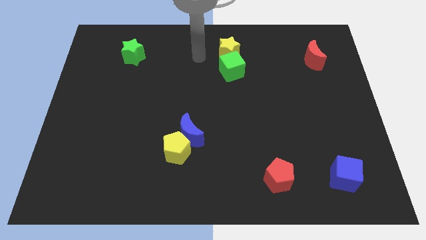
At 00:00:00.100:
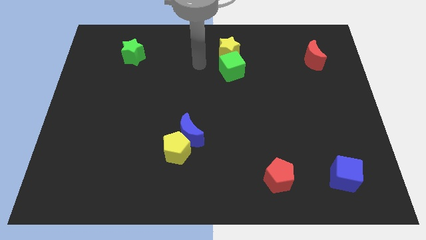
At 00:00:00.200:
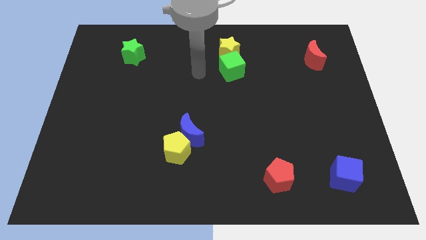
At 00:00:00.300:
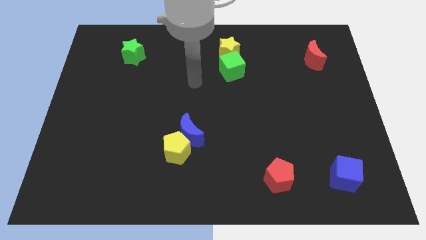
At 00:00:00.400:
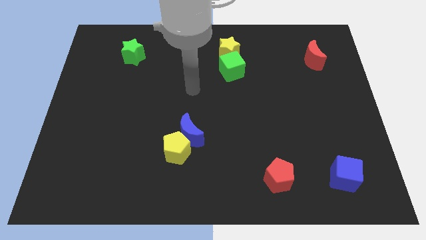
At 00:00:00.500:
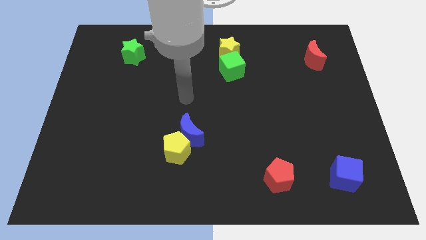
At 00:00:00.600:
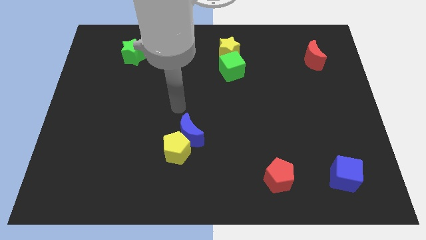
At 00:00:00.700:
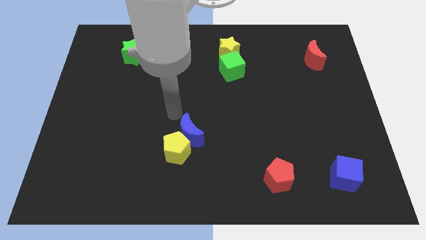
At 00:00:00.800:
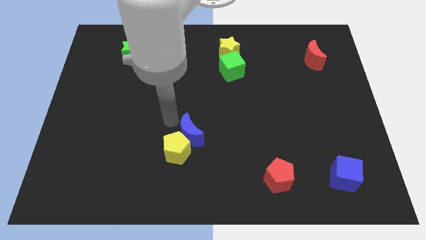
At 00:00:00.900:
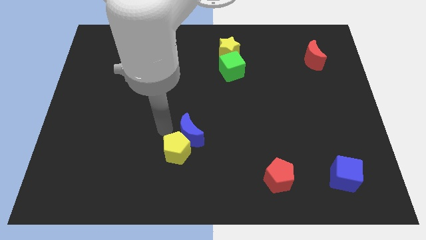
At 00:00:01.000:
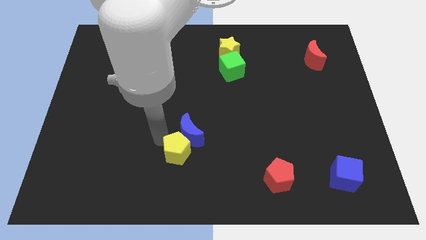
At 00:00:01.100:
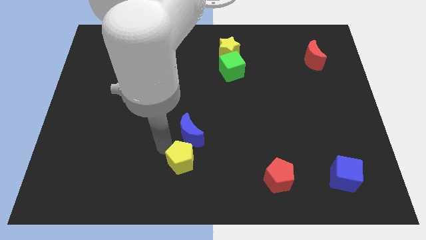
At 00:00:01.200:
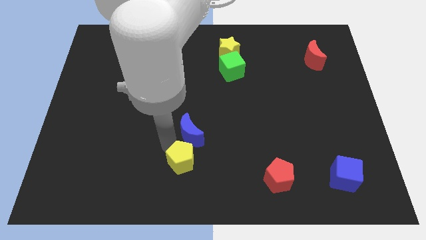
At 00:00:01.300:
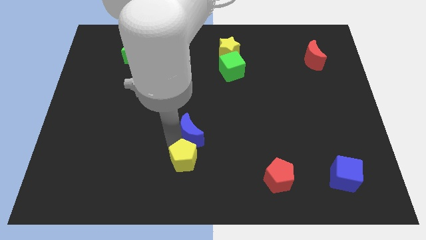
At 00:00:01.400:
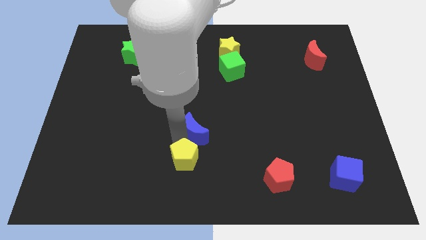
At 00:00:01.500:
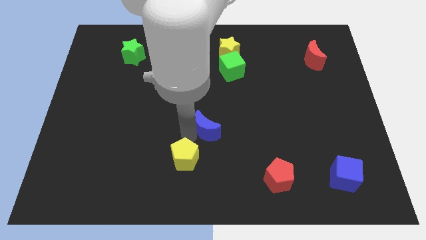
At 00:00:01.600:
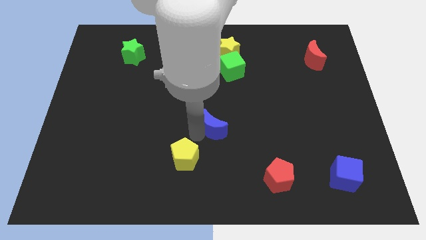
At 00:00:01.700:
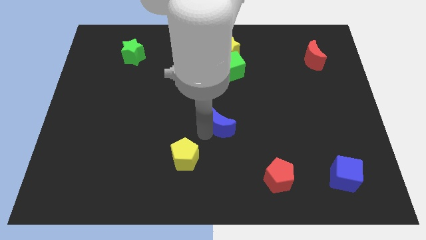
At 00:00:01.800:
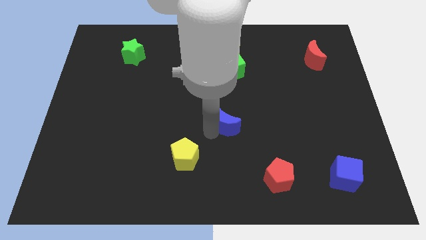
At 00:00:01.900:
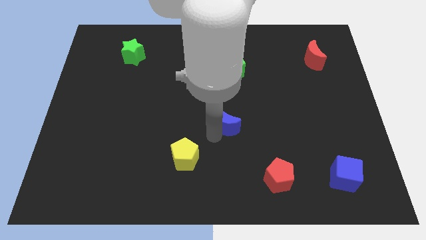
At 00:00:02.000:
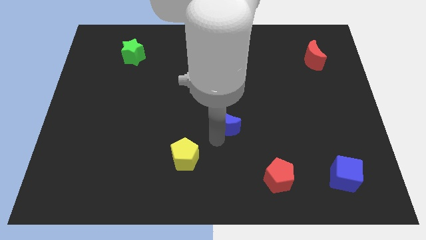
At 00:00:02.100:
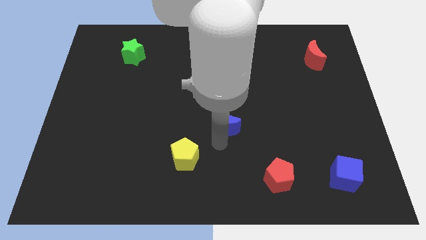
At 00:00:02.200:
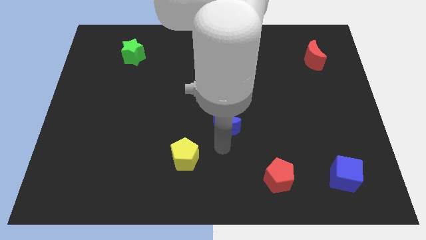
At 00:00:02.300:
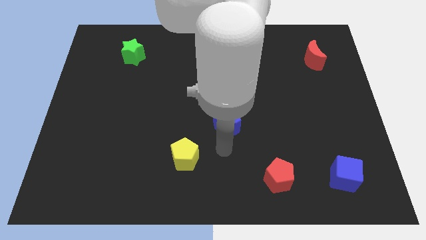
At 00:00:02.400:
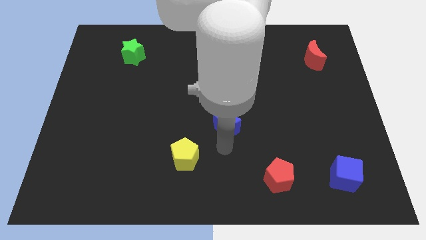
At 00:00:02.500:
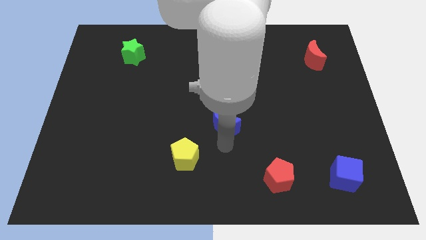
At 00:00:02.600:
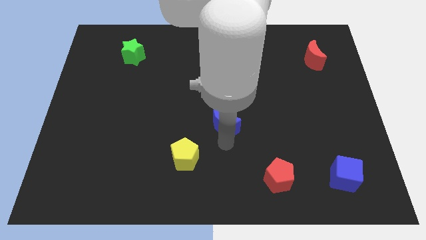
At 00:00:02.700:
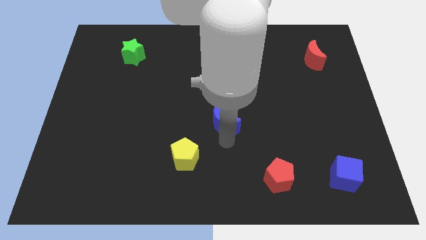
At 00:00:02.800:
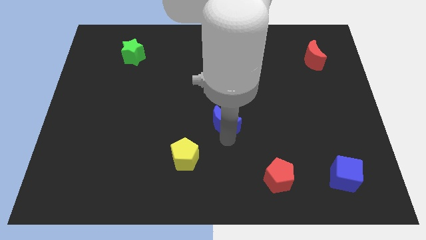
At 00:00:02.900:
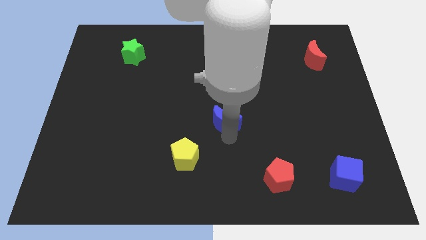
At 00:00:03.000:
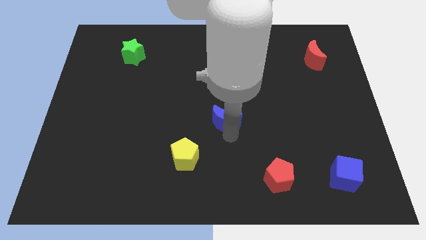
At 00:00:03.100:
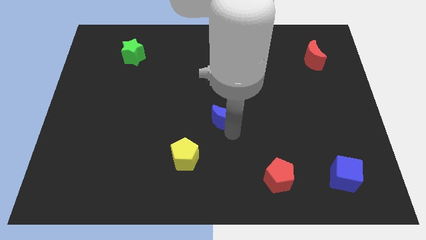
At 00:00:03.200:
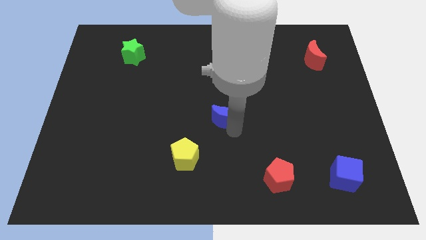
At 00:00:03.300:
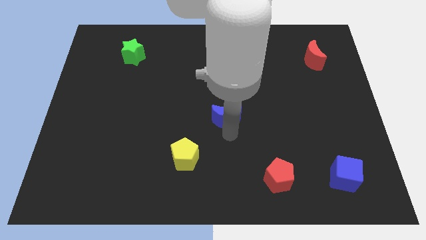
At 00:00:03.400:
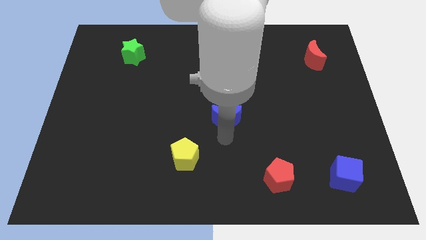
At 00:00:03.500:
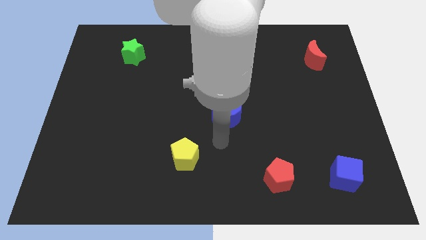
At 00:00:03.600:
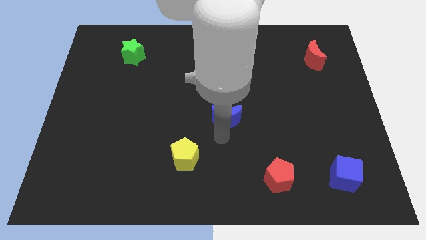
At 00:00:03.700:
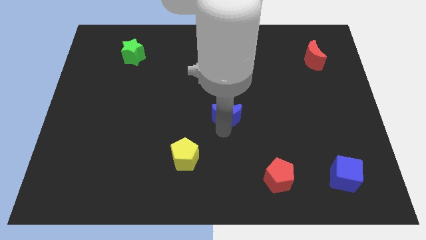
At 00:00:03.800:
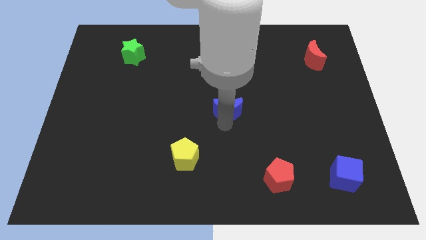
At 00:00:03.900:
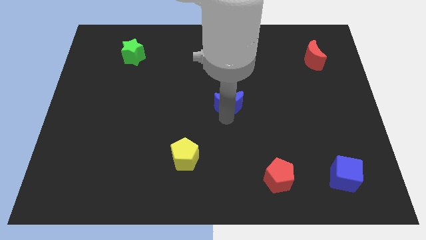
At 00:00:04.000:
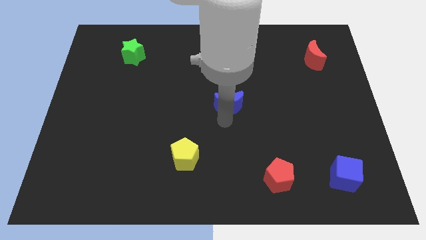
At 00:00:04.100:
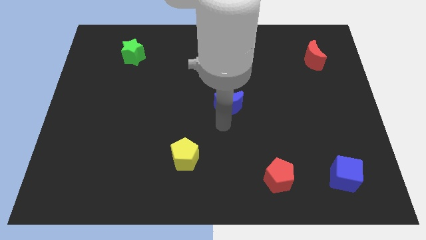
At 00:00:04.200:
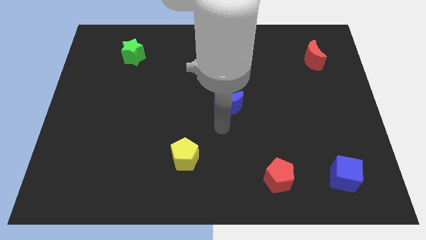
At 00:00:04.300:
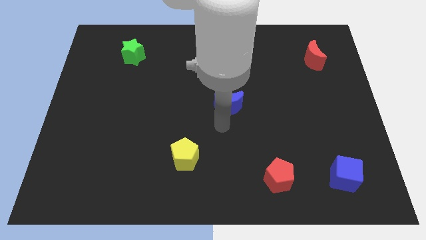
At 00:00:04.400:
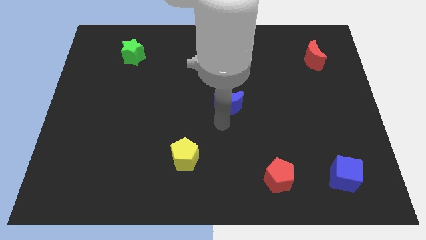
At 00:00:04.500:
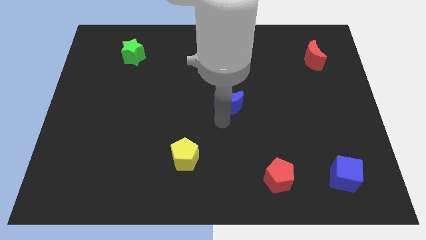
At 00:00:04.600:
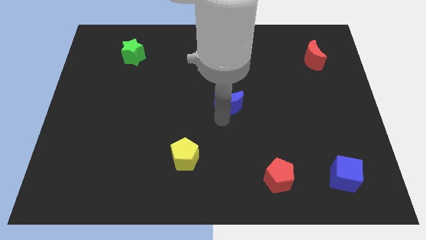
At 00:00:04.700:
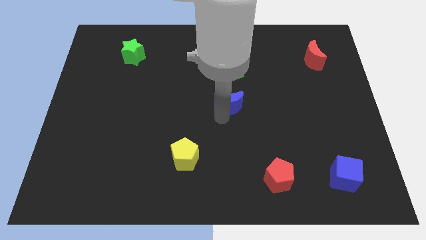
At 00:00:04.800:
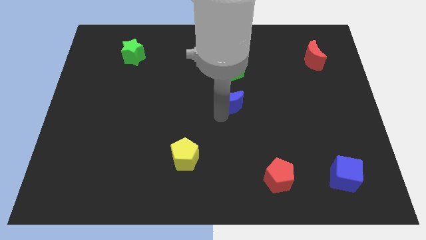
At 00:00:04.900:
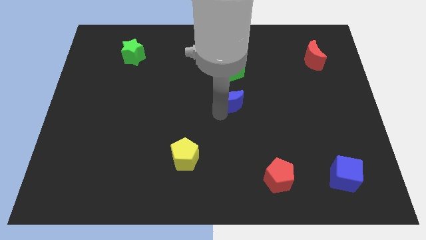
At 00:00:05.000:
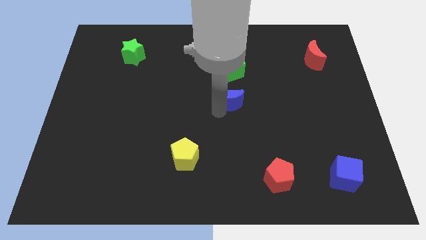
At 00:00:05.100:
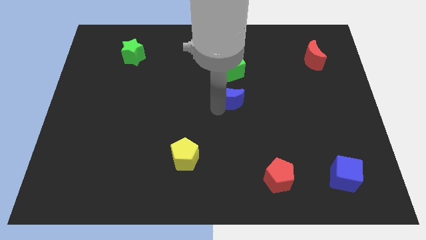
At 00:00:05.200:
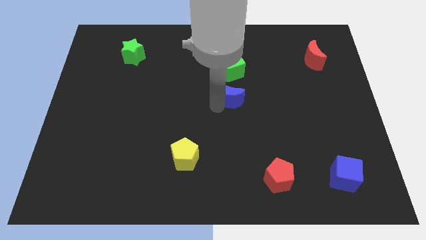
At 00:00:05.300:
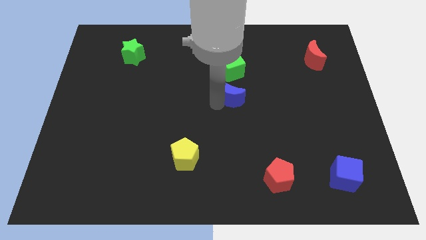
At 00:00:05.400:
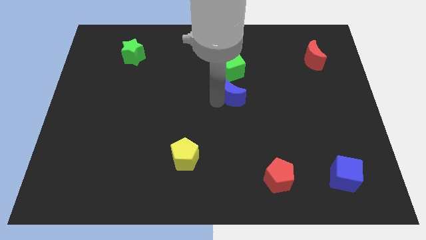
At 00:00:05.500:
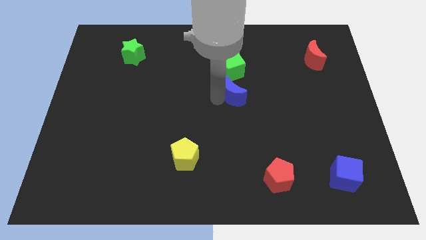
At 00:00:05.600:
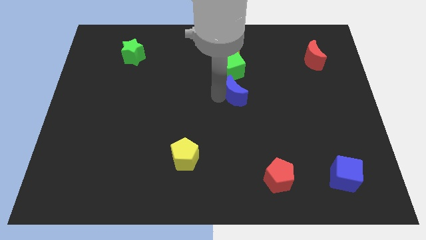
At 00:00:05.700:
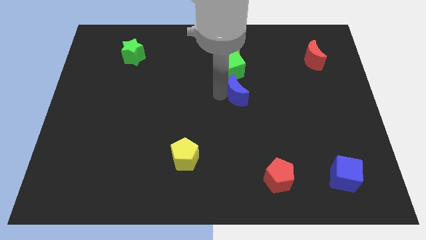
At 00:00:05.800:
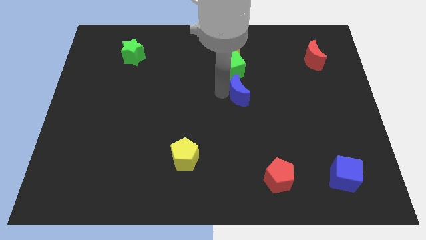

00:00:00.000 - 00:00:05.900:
put the blue moon diagonally down and to the right of the green cube
